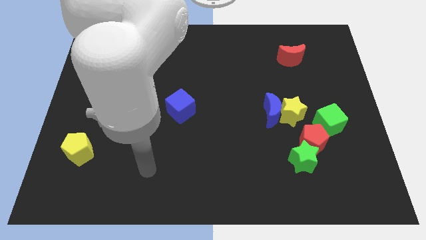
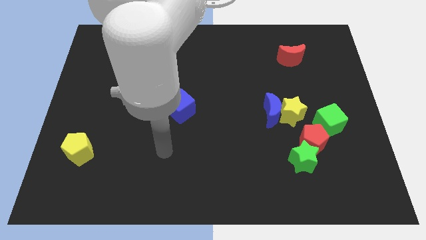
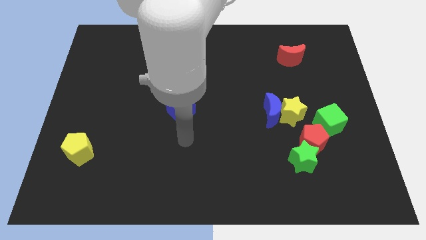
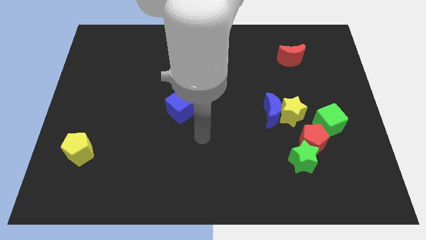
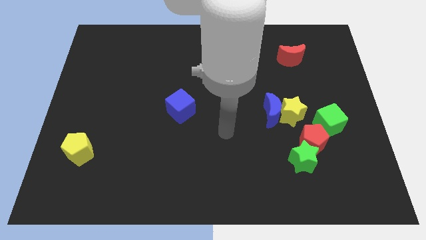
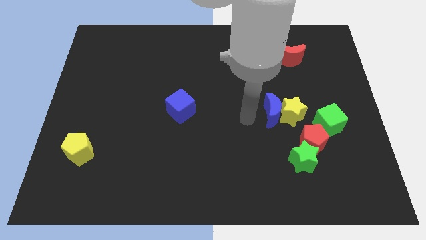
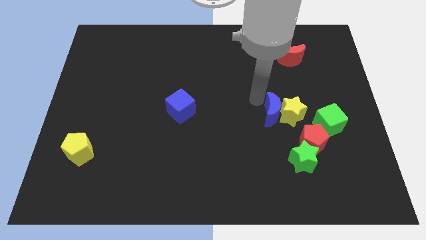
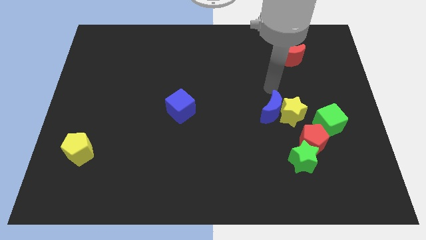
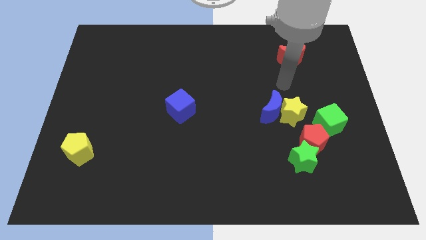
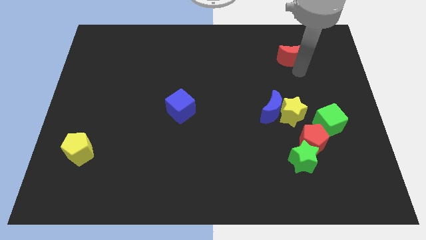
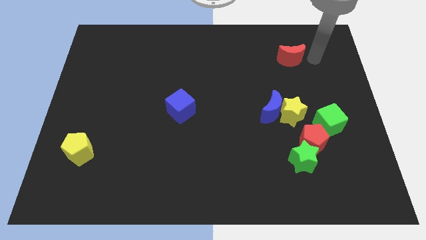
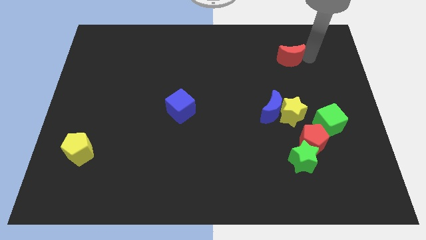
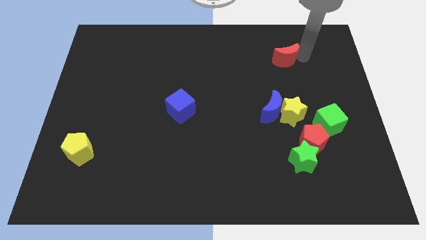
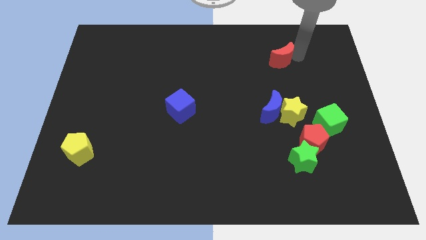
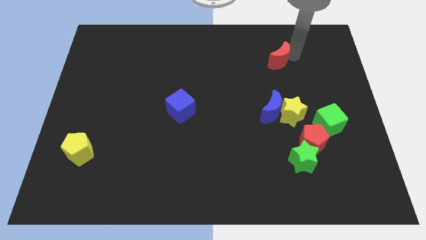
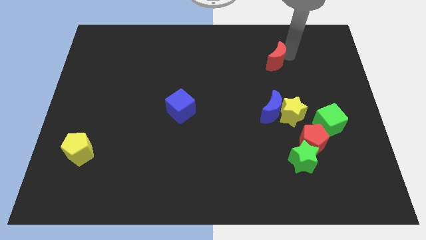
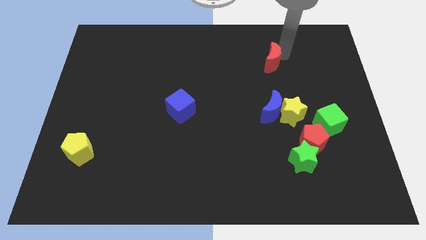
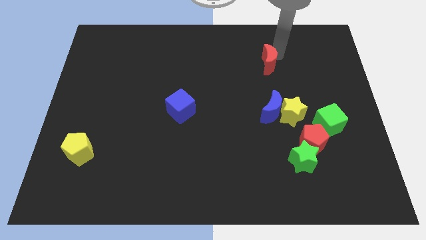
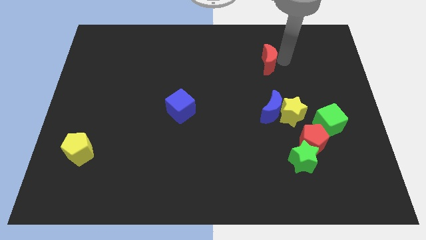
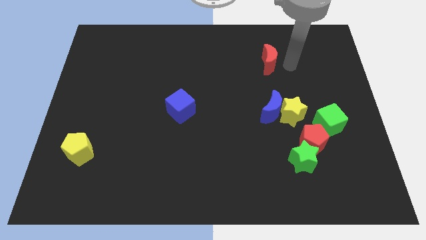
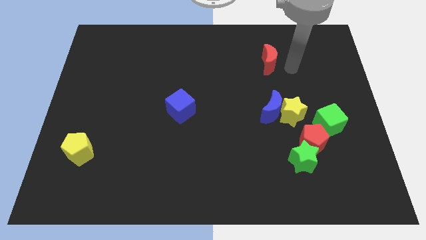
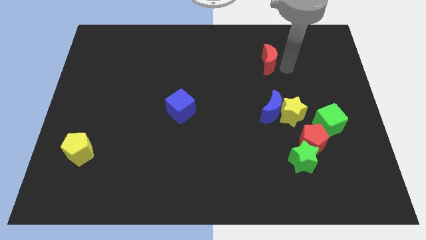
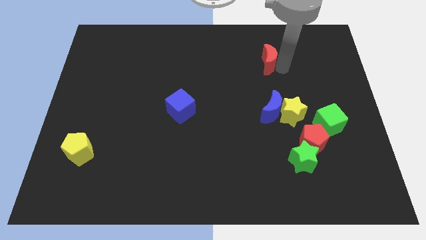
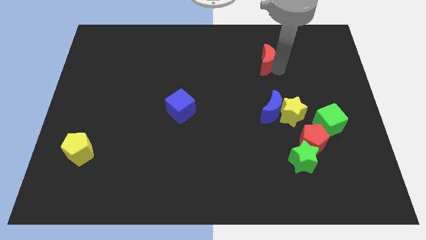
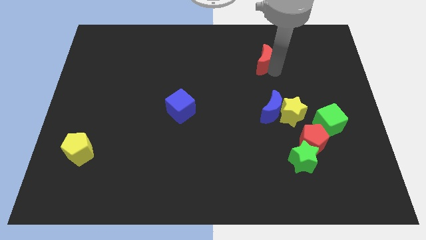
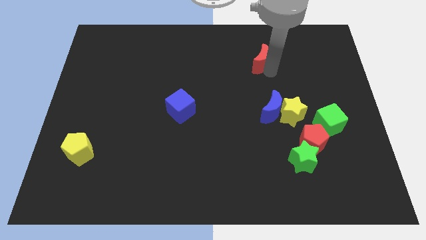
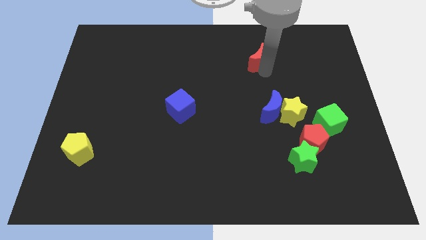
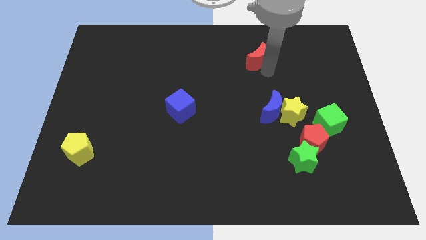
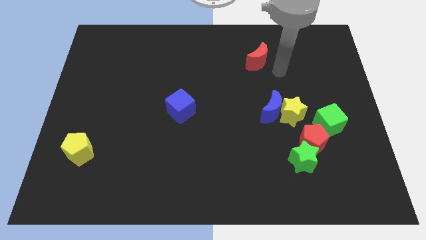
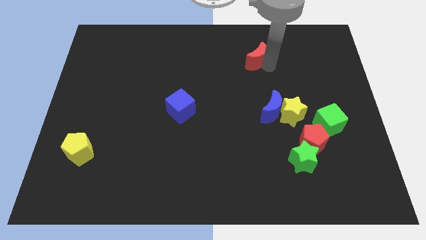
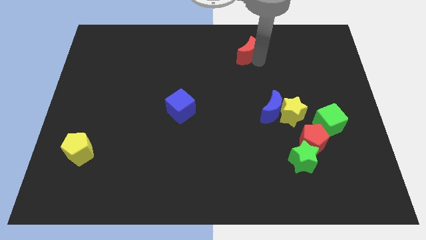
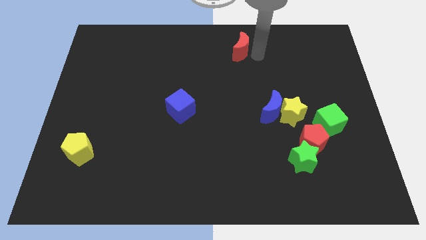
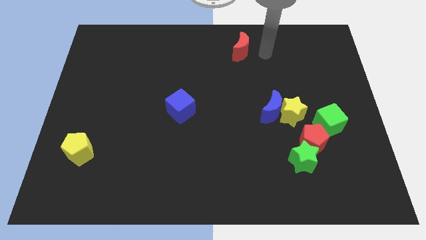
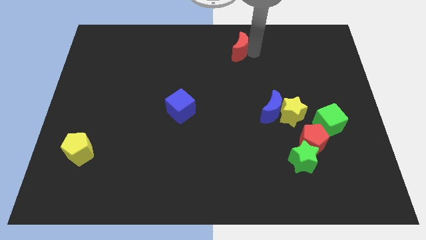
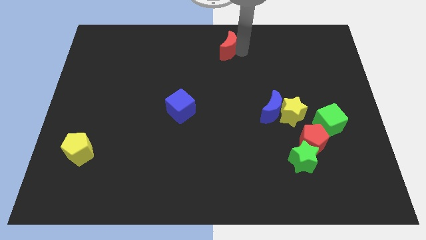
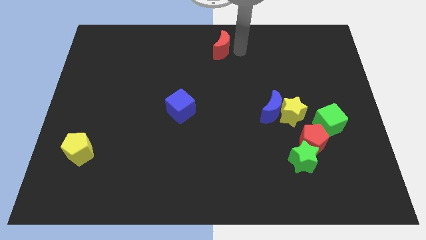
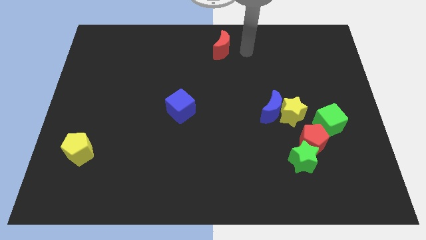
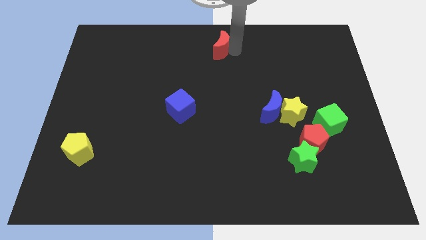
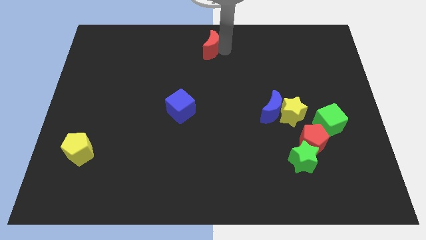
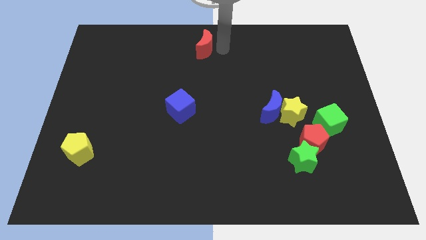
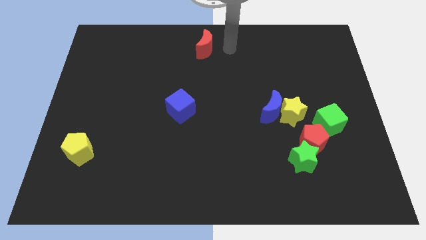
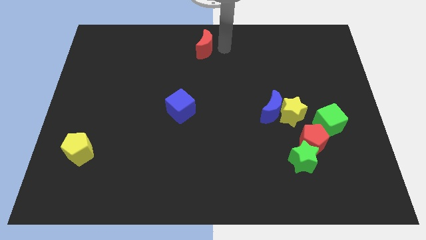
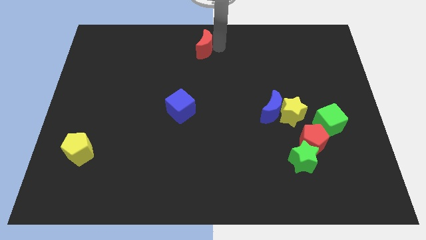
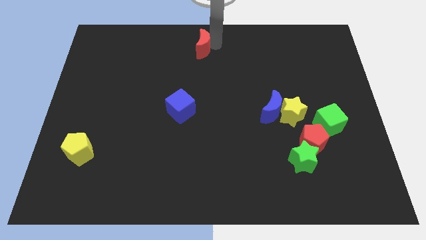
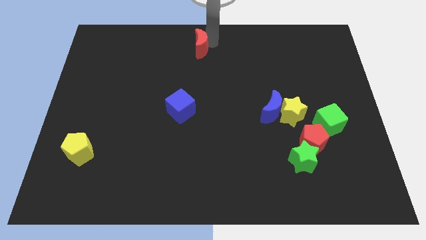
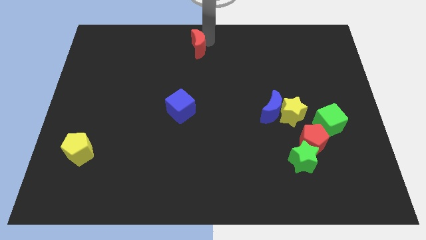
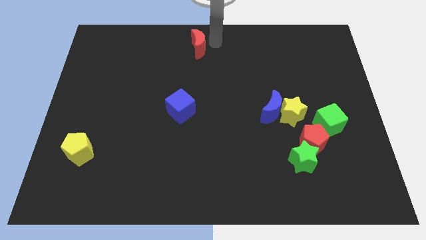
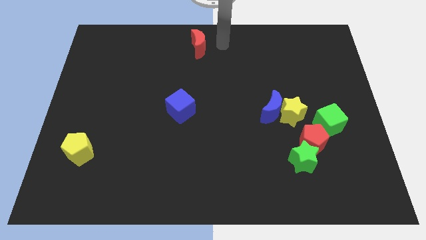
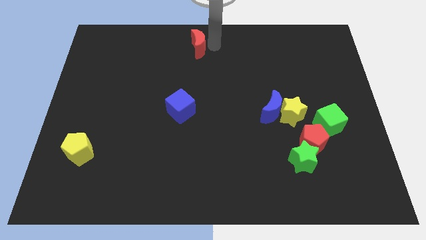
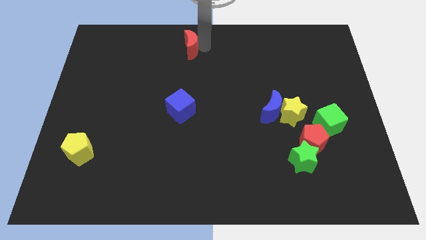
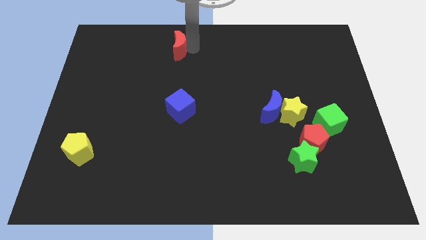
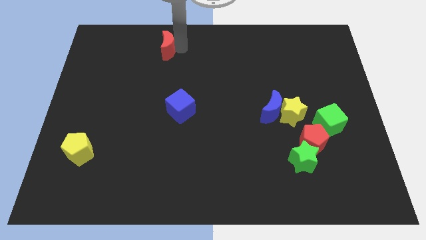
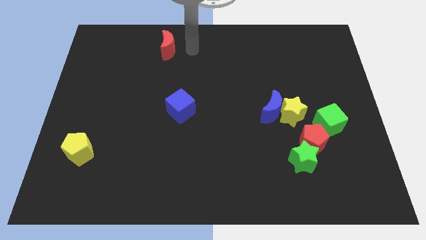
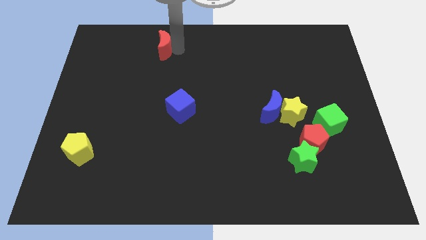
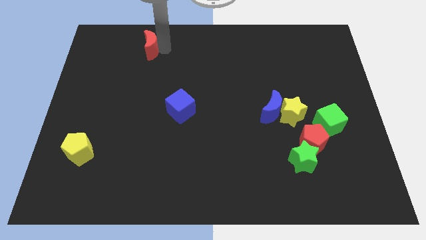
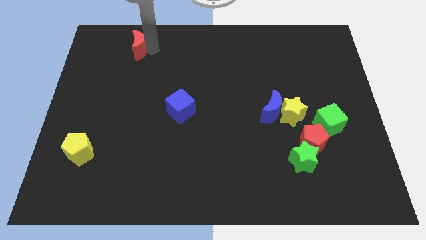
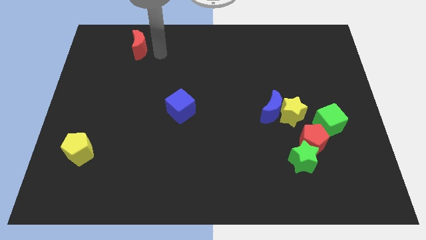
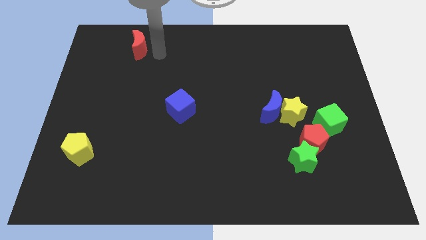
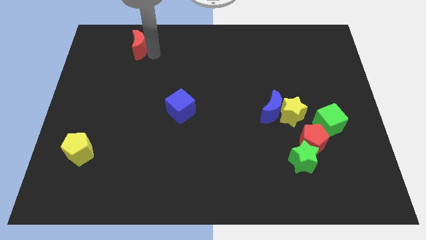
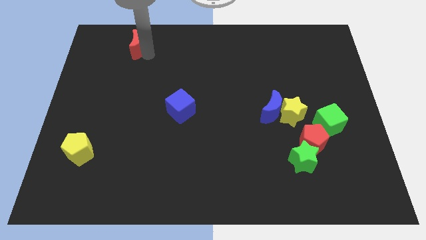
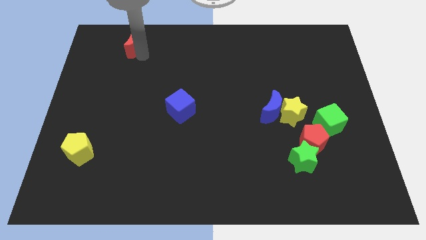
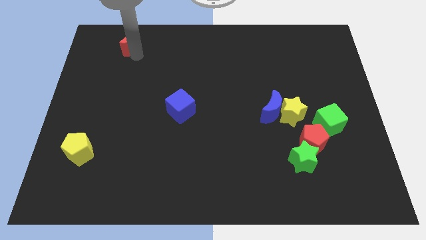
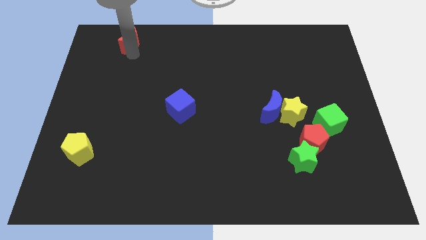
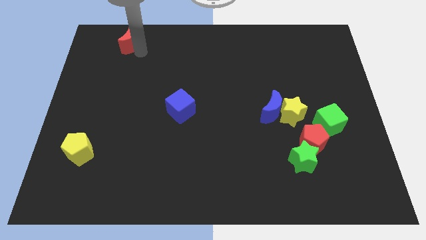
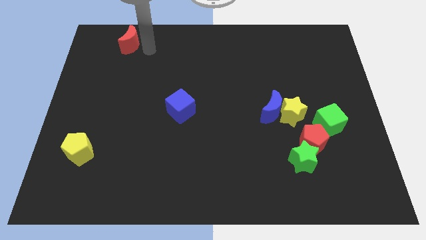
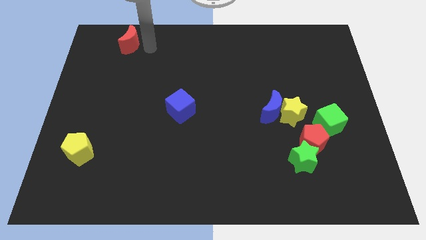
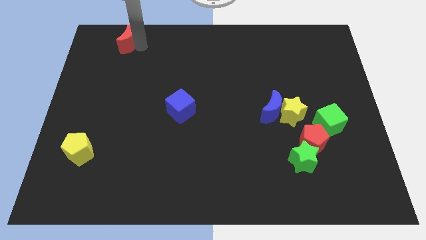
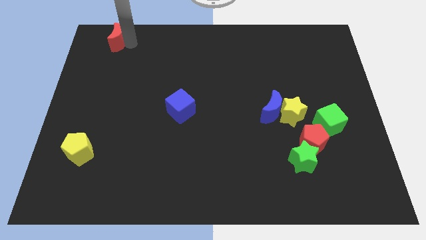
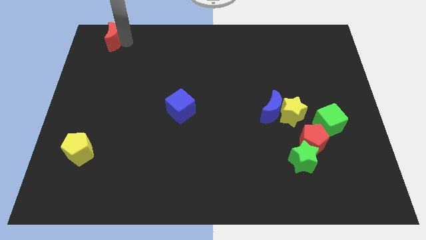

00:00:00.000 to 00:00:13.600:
put the red moon to the top left corner

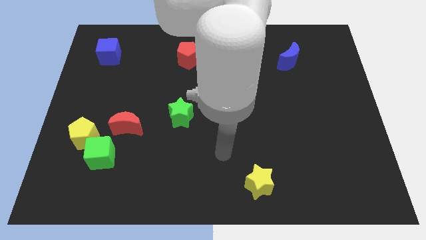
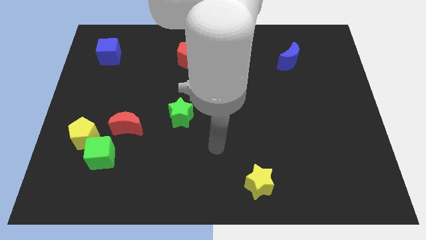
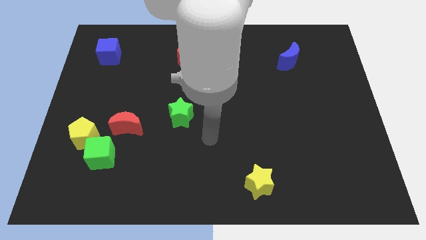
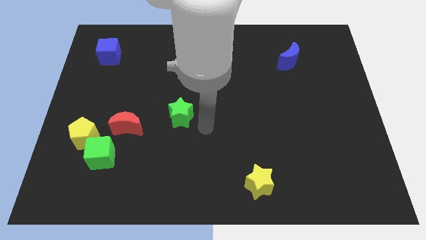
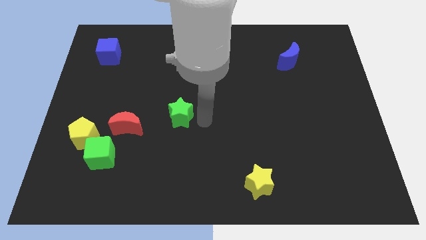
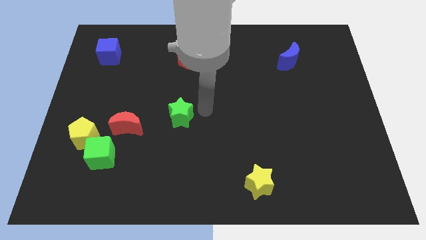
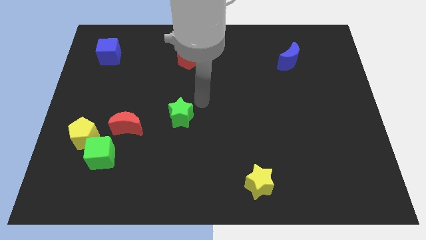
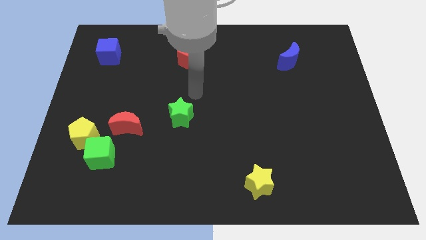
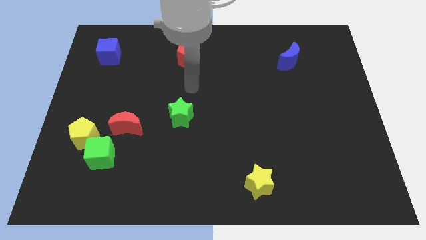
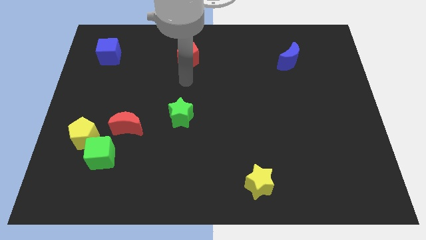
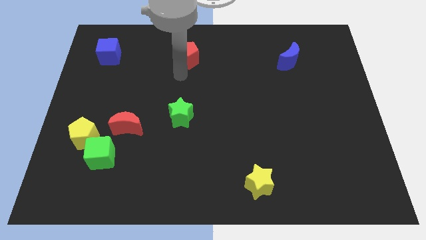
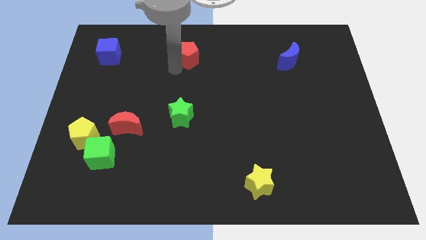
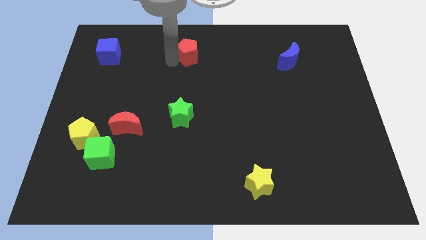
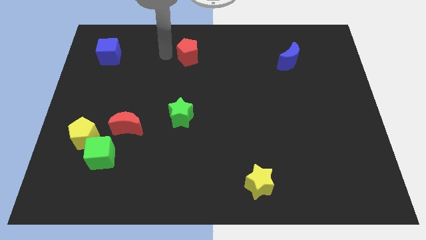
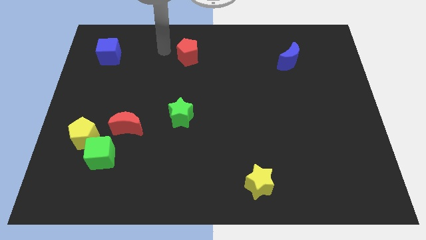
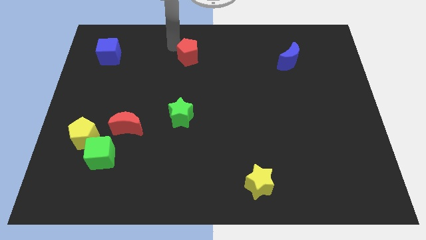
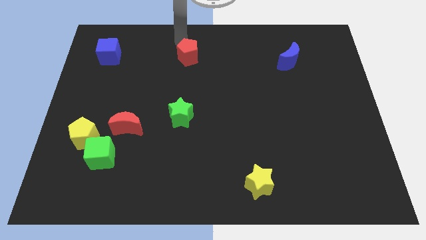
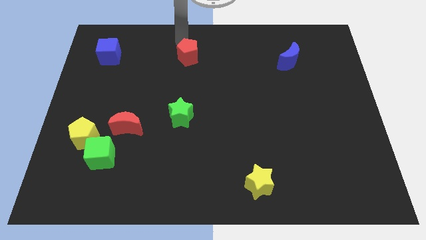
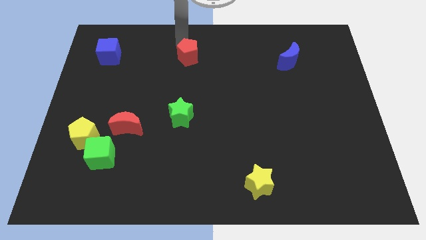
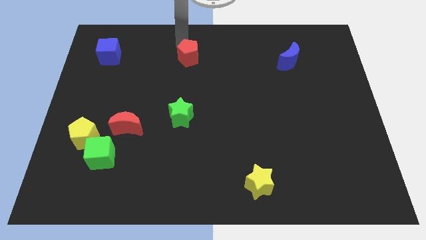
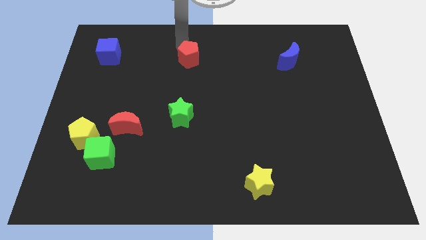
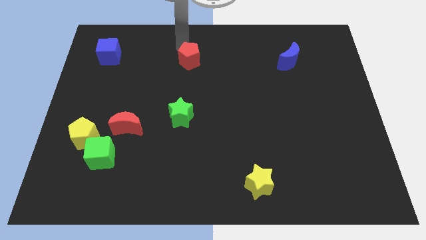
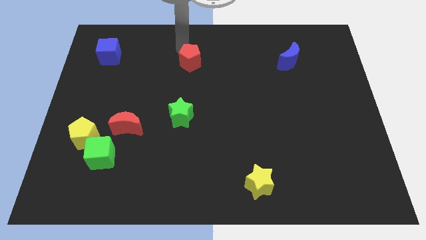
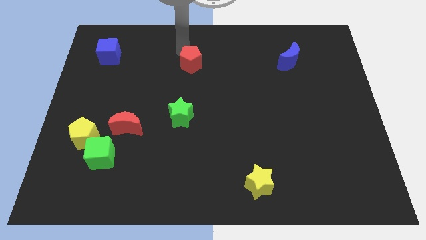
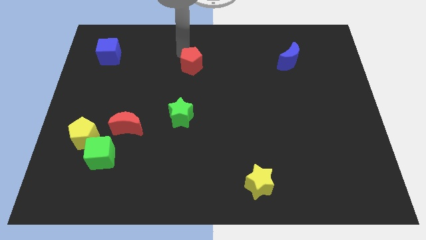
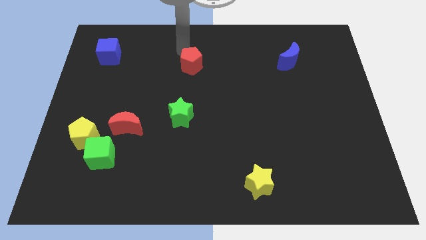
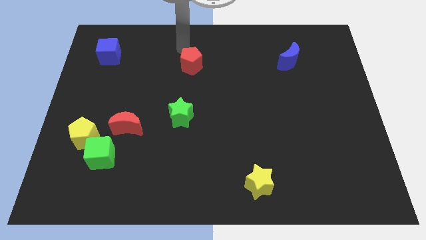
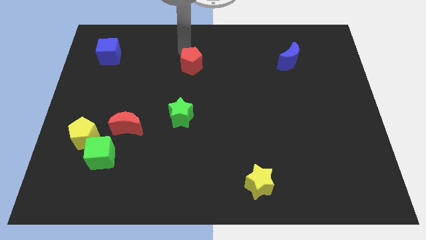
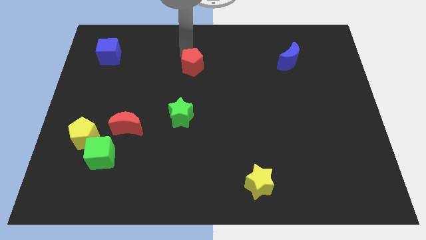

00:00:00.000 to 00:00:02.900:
move the red pentagon to the center
